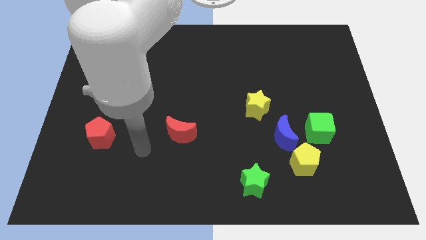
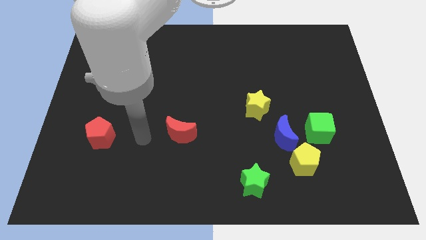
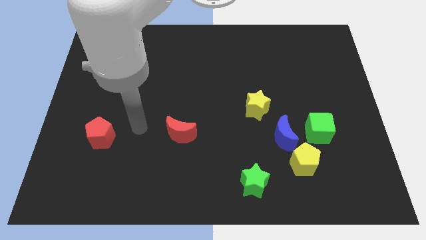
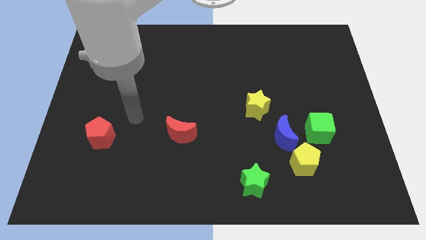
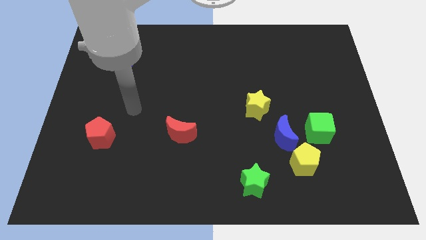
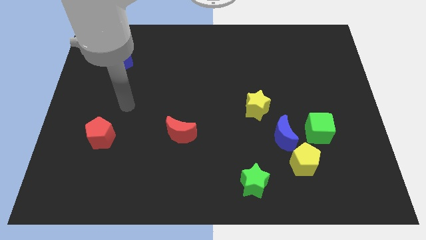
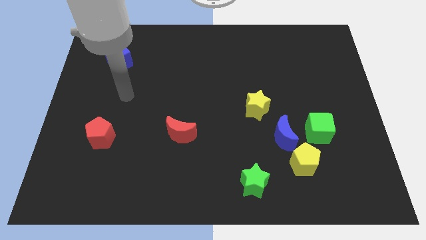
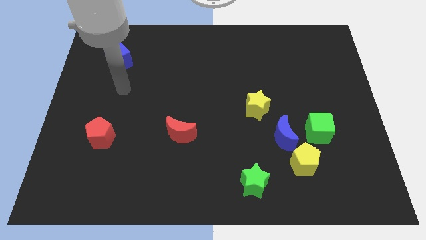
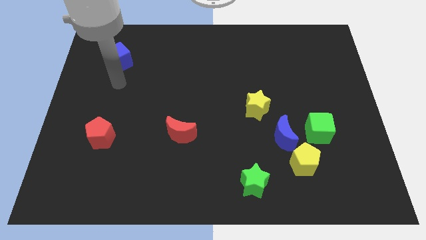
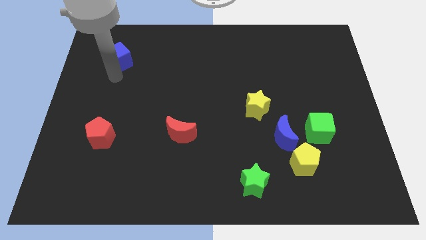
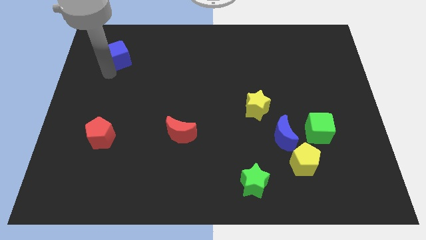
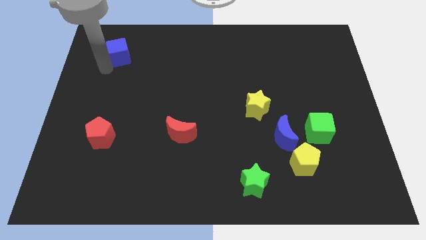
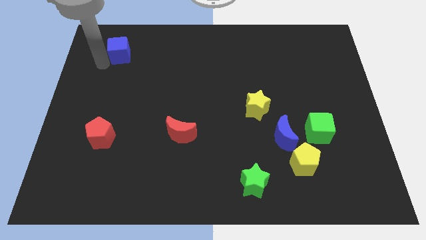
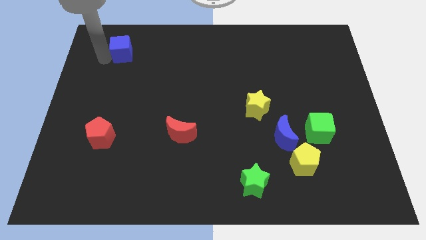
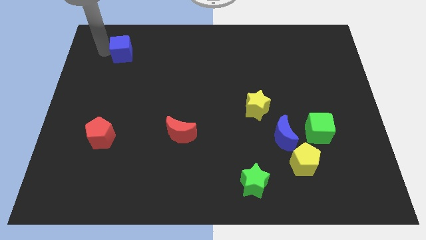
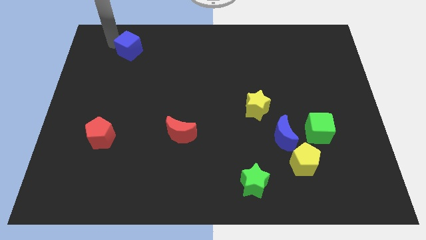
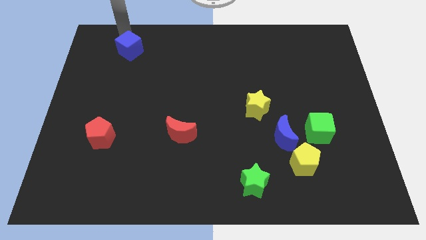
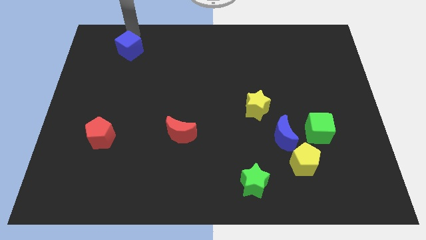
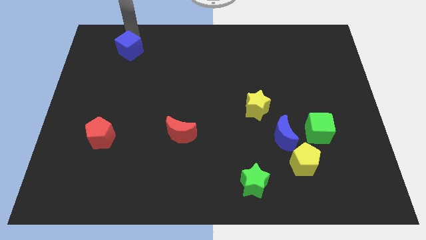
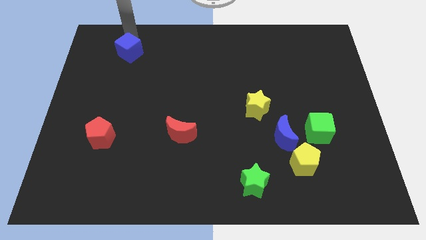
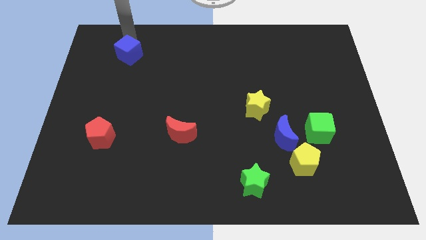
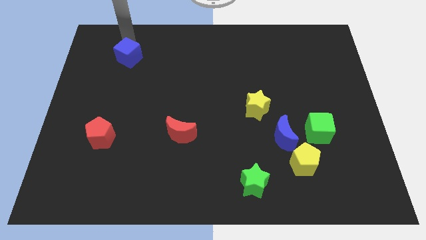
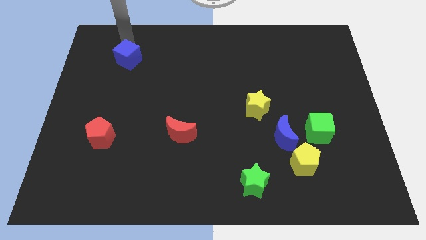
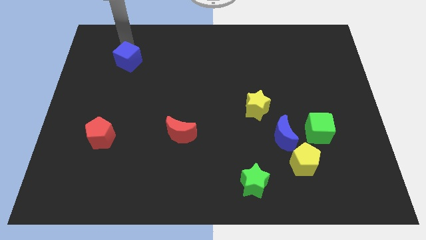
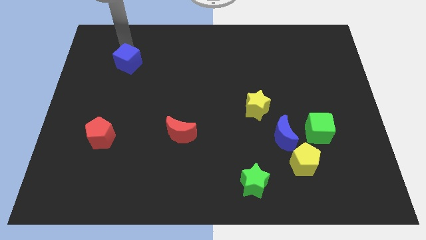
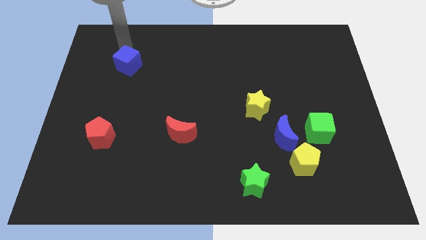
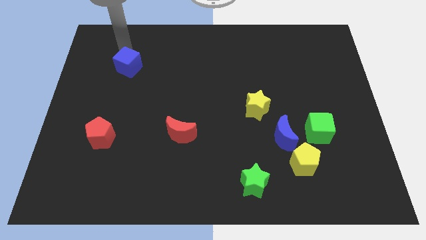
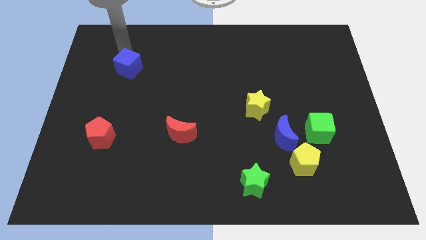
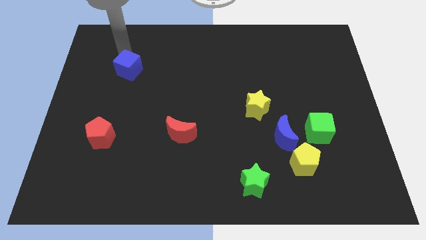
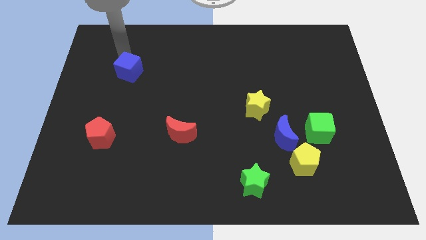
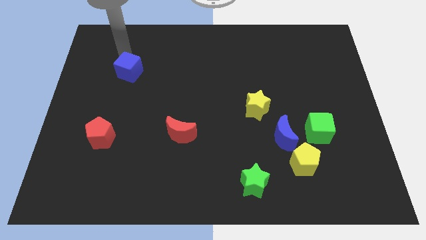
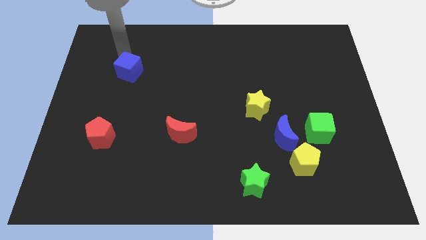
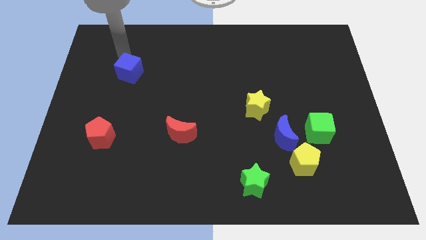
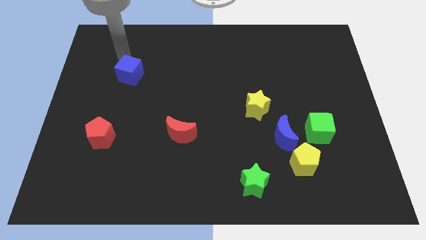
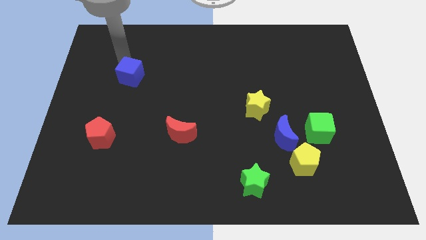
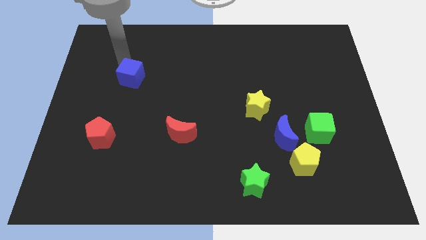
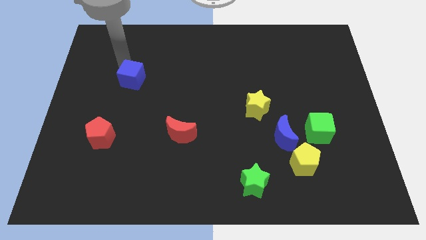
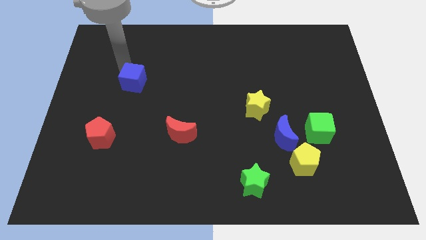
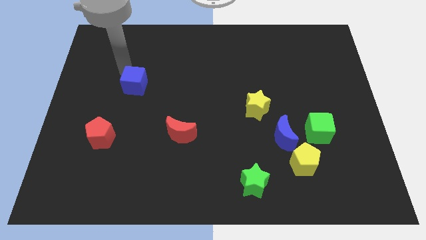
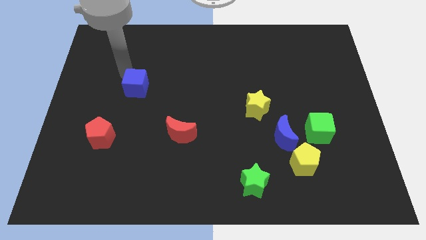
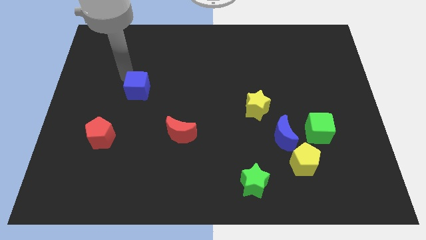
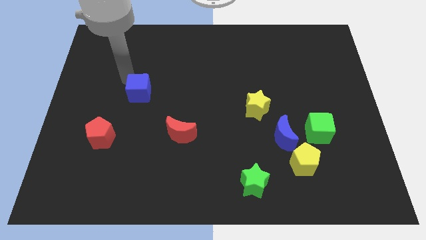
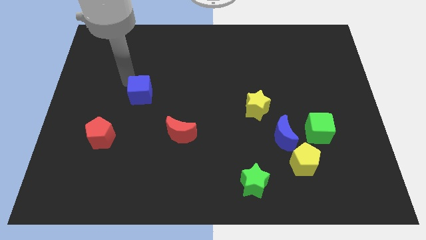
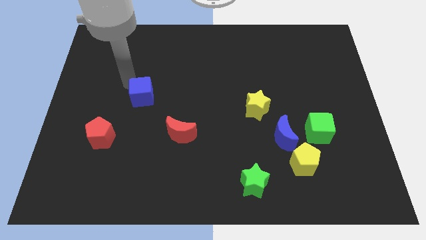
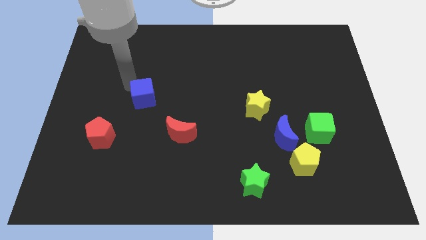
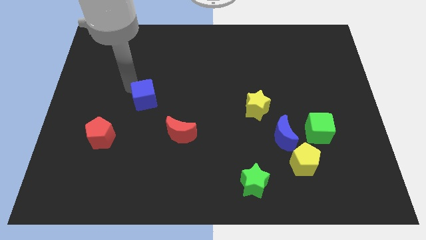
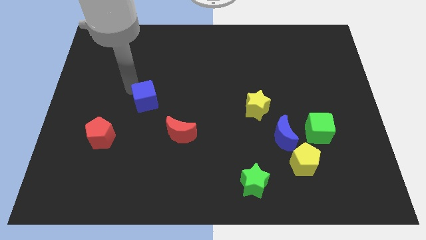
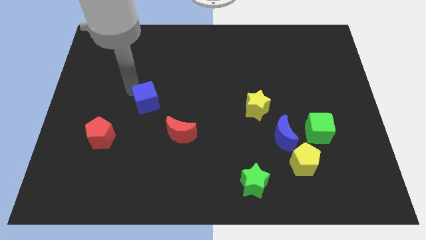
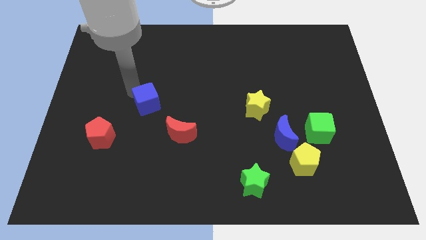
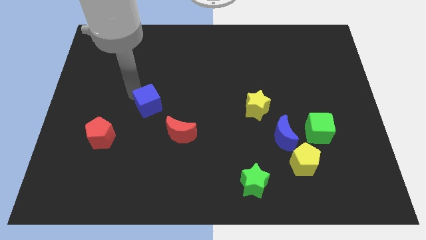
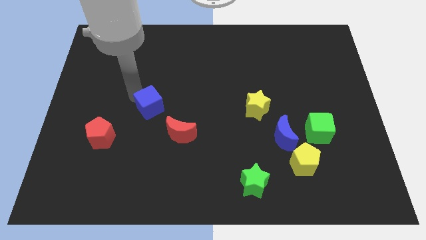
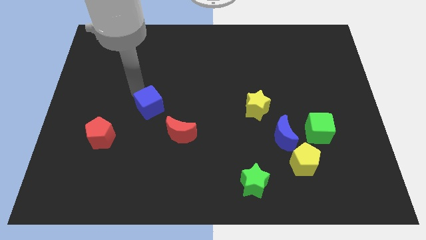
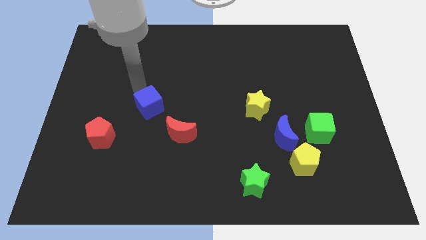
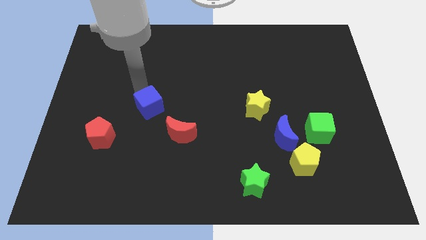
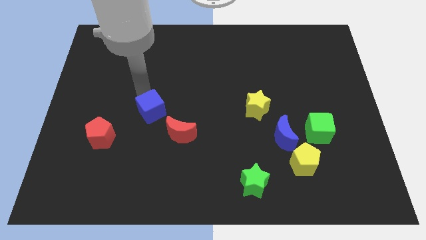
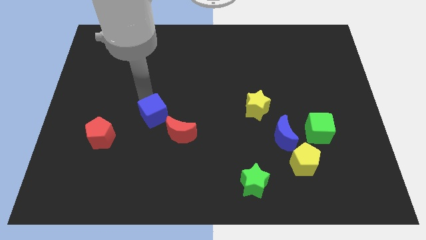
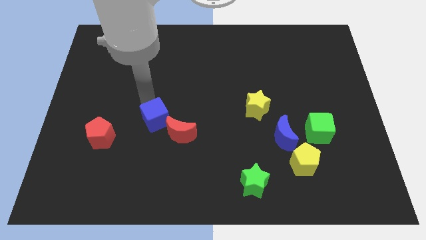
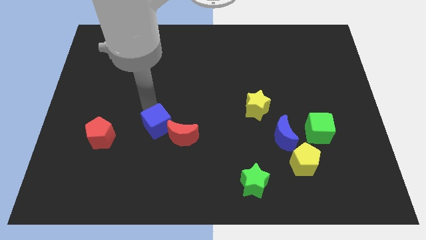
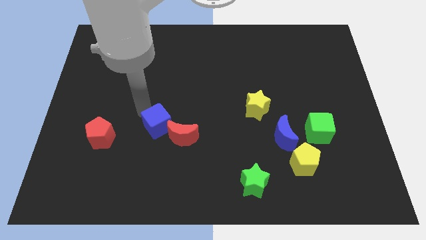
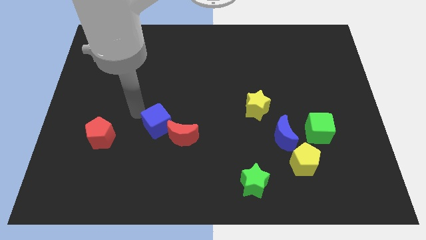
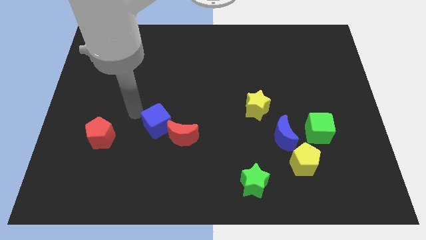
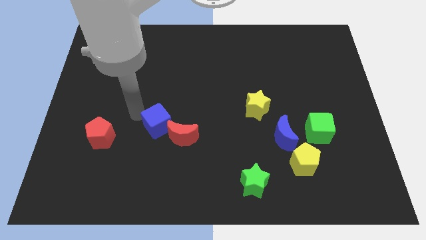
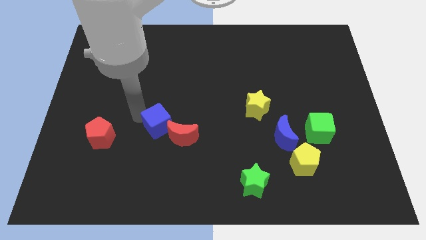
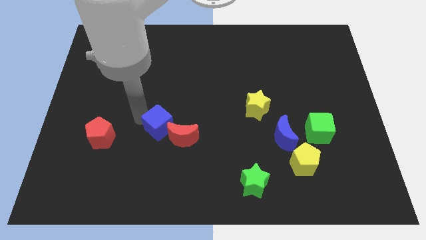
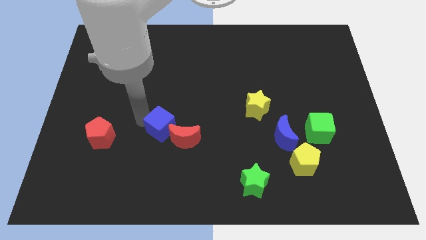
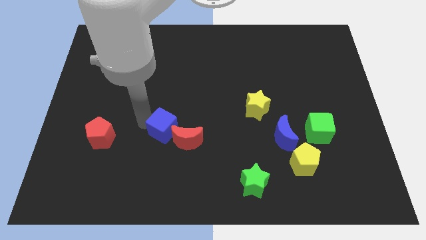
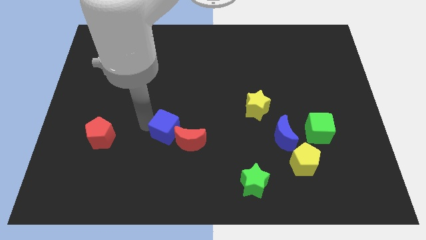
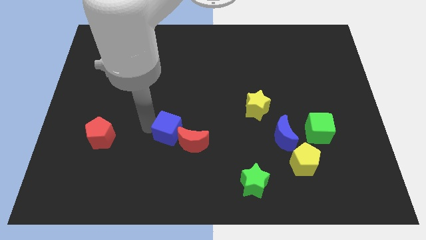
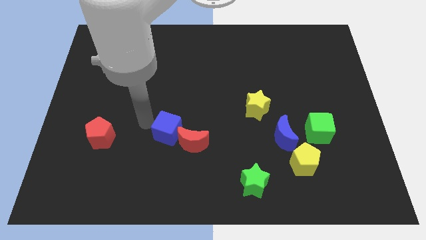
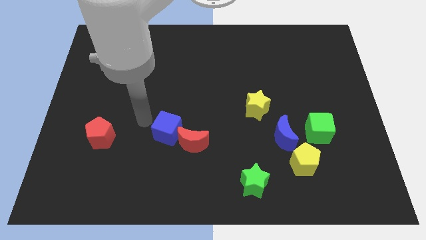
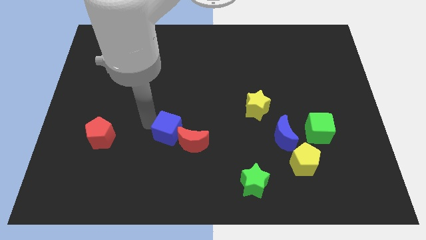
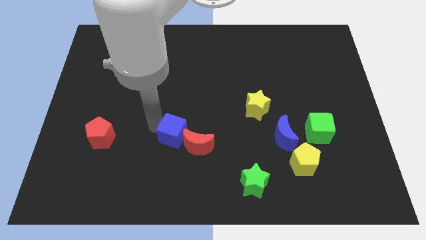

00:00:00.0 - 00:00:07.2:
move the blue cube next to the red moon
